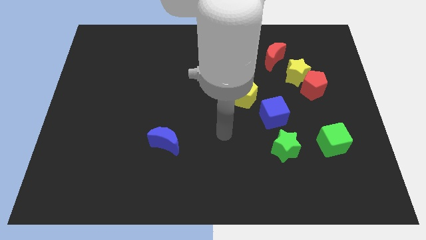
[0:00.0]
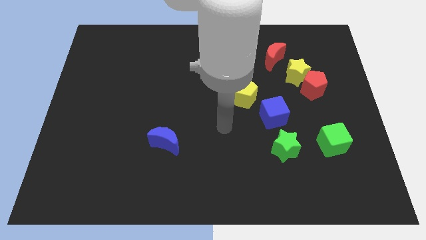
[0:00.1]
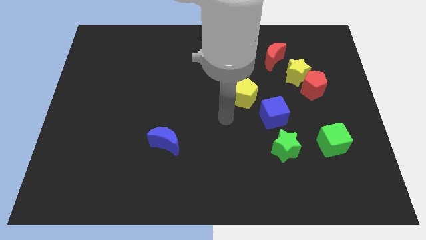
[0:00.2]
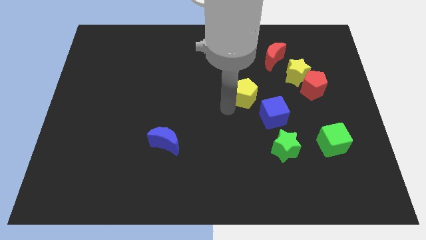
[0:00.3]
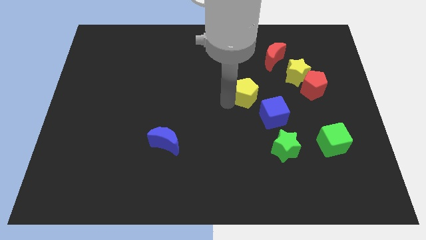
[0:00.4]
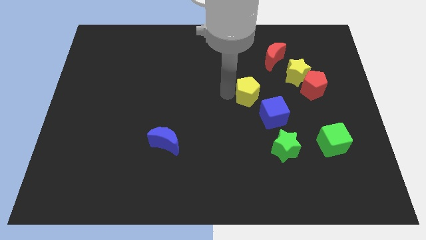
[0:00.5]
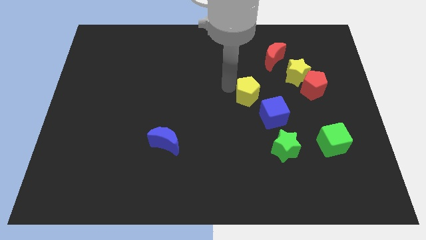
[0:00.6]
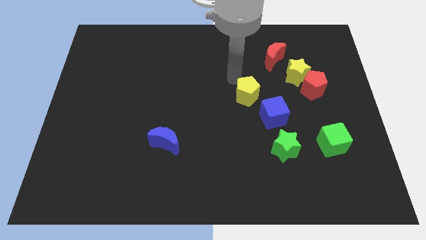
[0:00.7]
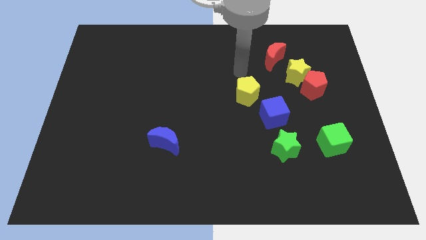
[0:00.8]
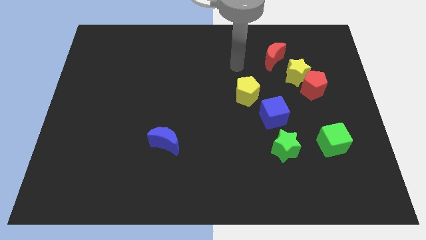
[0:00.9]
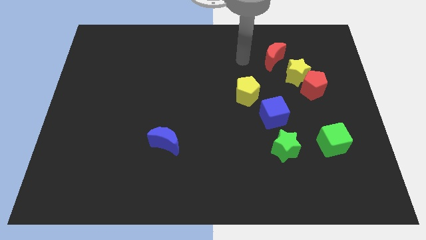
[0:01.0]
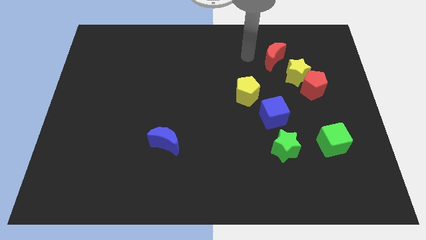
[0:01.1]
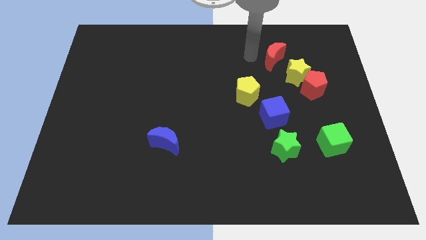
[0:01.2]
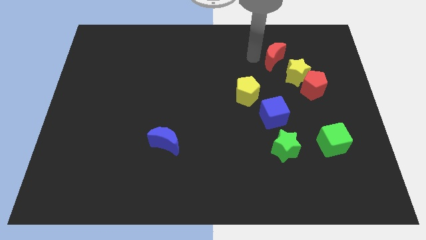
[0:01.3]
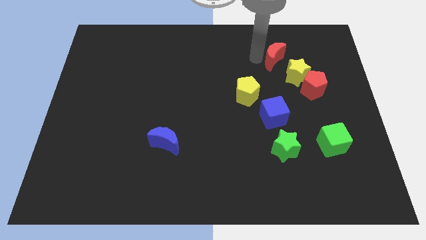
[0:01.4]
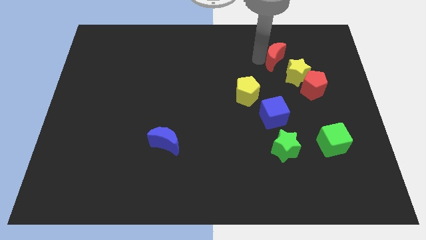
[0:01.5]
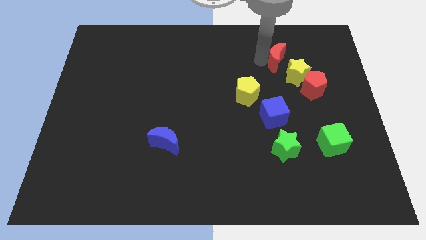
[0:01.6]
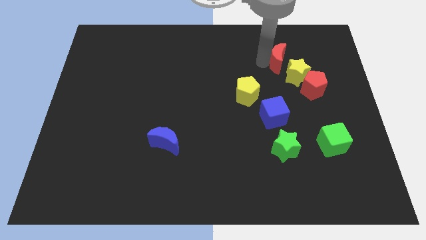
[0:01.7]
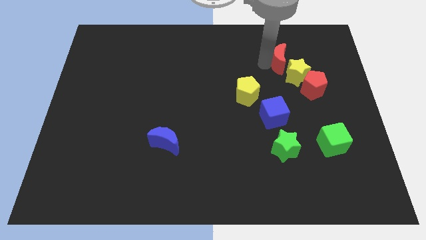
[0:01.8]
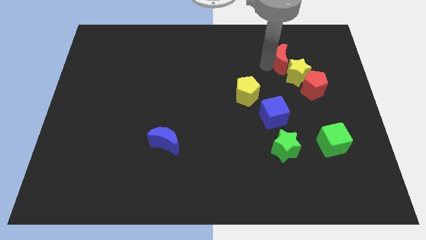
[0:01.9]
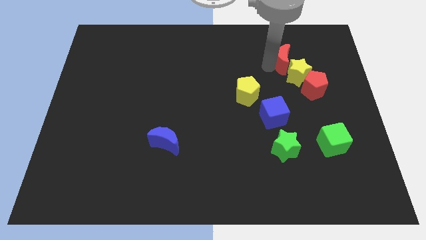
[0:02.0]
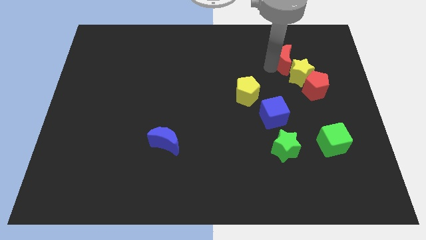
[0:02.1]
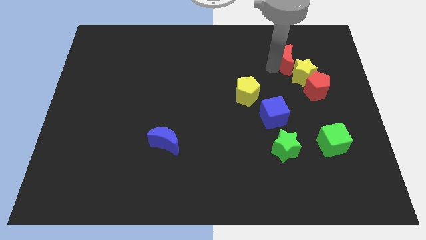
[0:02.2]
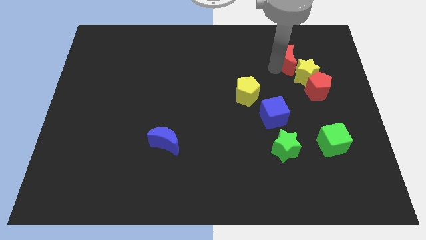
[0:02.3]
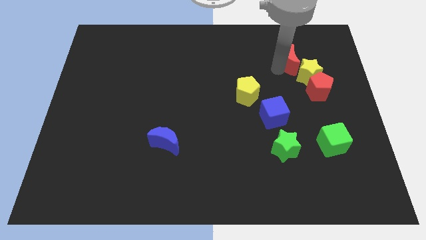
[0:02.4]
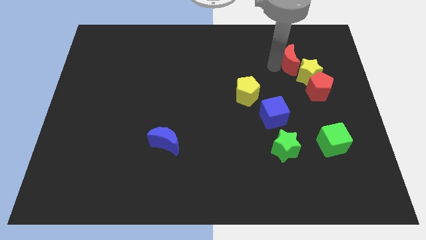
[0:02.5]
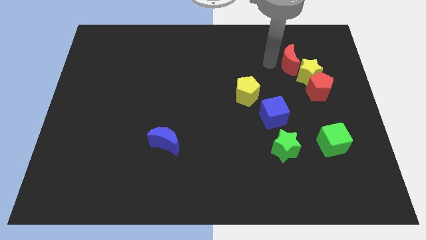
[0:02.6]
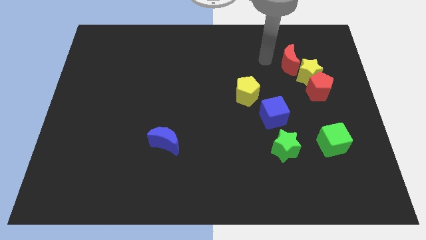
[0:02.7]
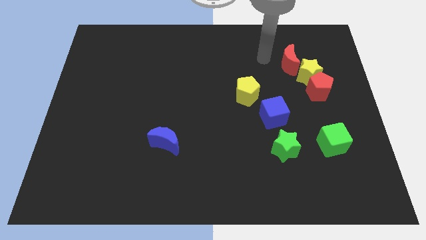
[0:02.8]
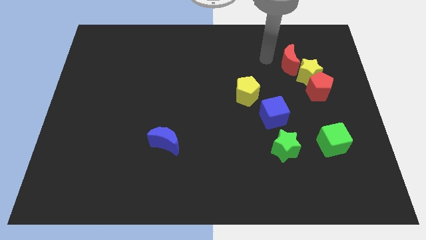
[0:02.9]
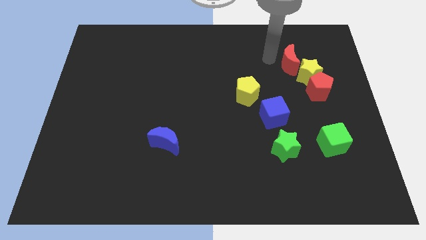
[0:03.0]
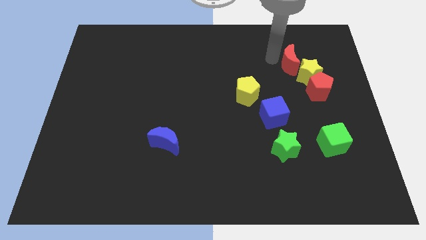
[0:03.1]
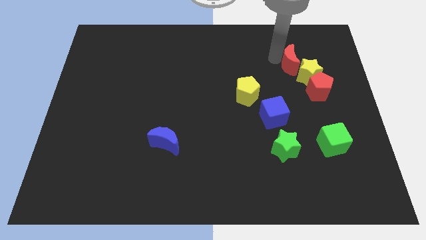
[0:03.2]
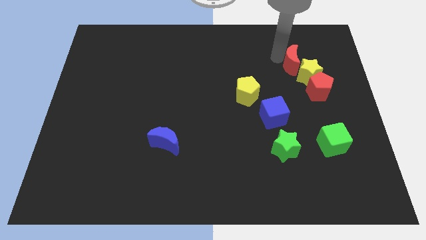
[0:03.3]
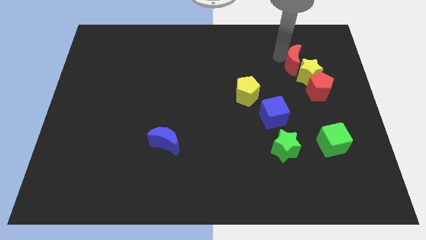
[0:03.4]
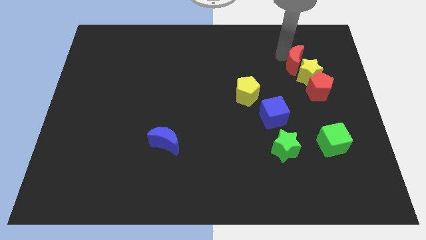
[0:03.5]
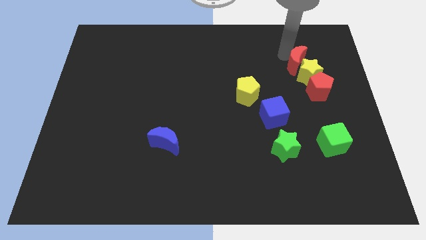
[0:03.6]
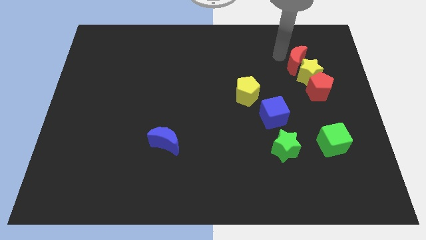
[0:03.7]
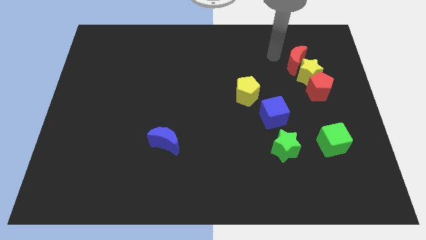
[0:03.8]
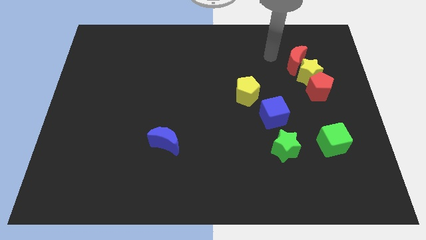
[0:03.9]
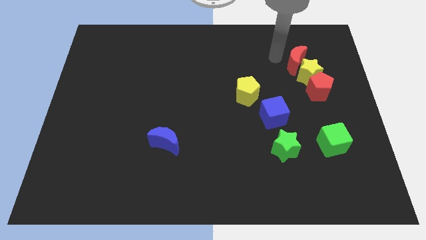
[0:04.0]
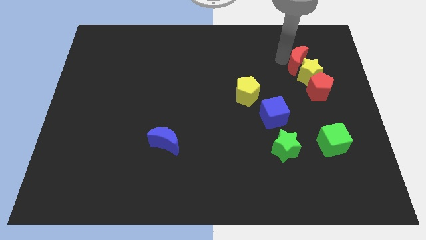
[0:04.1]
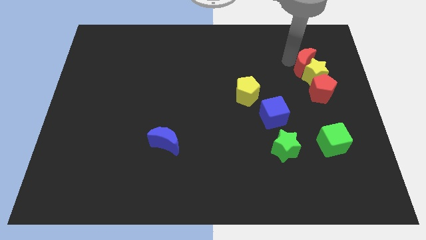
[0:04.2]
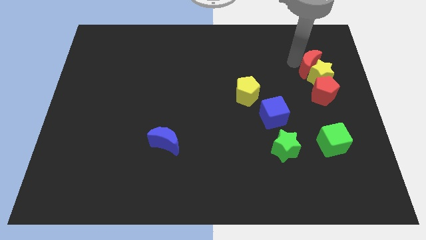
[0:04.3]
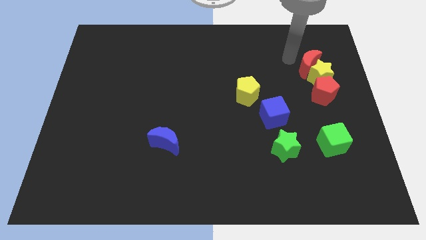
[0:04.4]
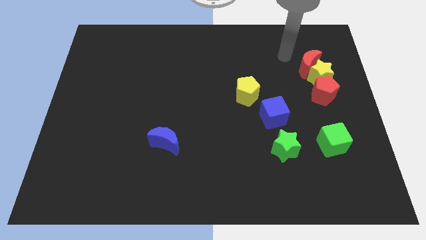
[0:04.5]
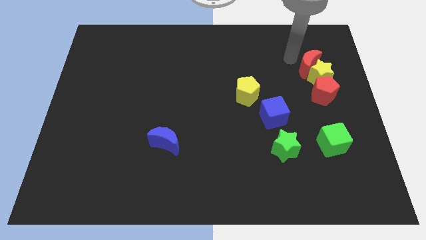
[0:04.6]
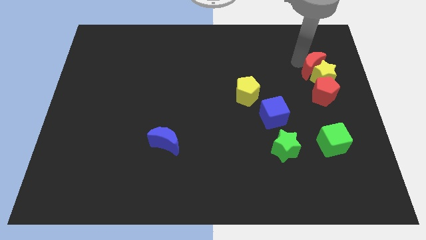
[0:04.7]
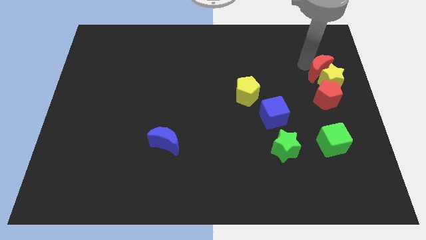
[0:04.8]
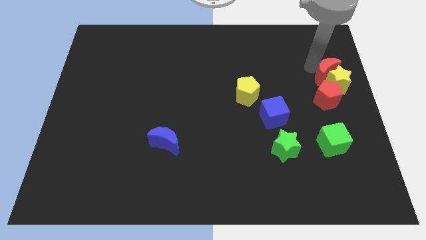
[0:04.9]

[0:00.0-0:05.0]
put the red moon to the right side
